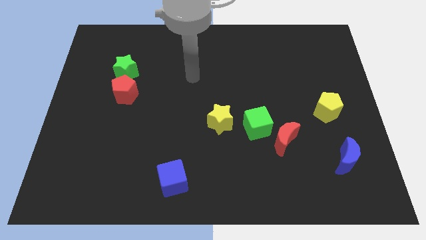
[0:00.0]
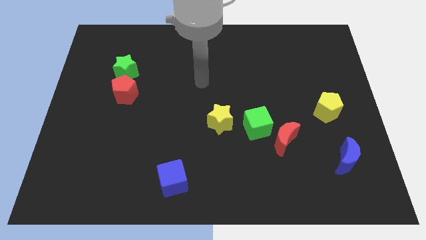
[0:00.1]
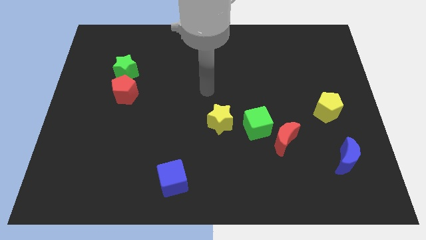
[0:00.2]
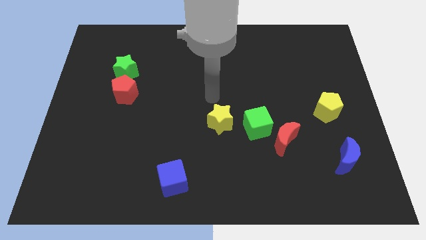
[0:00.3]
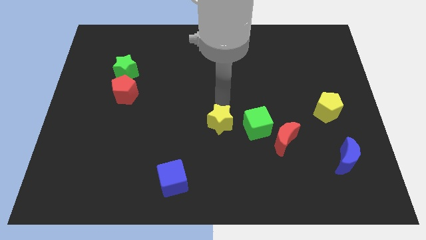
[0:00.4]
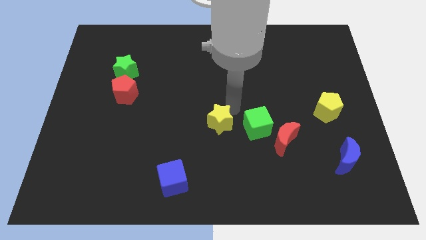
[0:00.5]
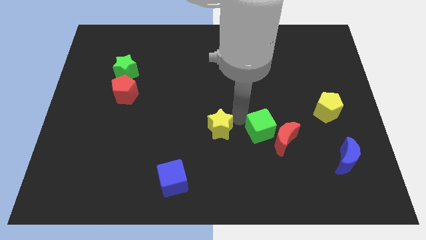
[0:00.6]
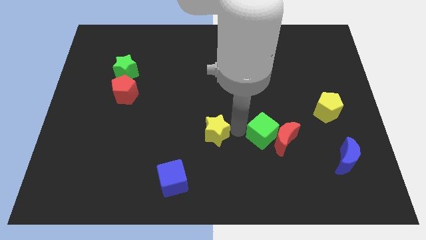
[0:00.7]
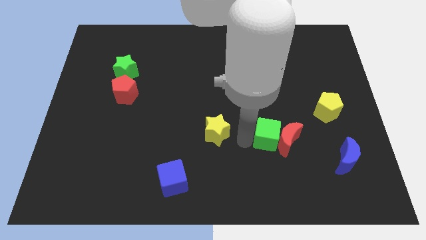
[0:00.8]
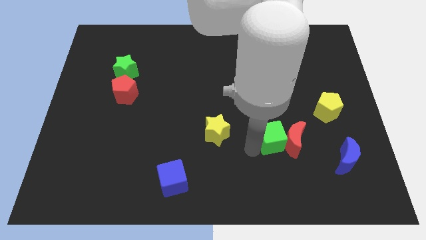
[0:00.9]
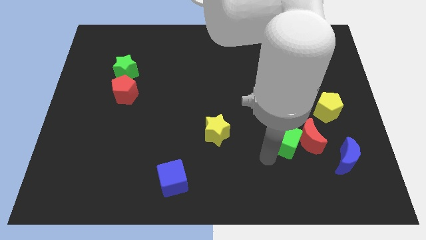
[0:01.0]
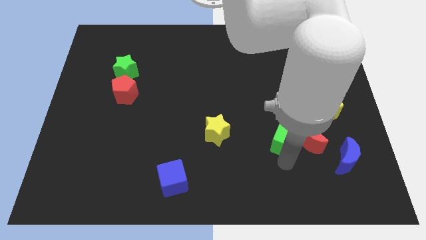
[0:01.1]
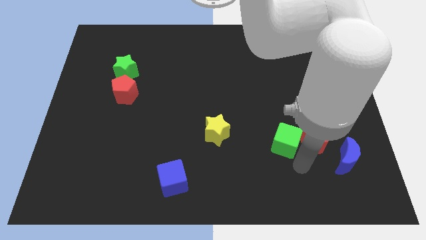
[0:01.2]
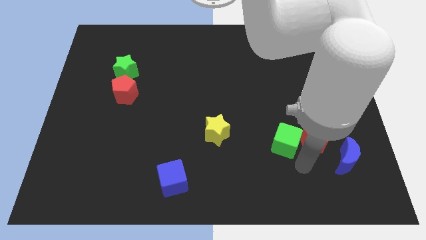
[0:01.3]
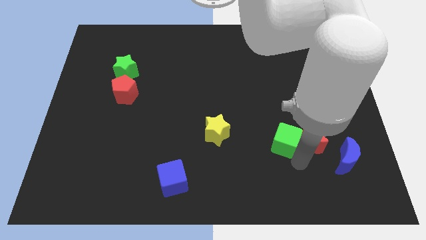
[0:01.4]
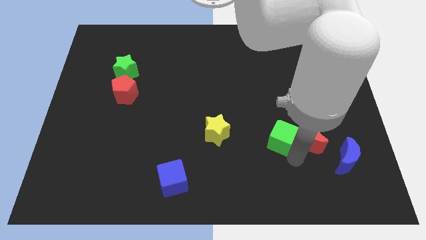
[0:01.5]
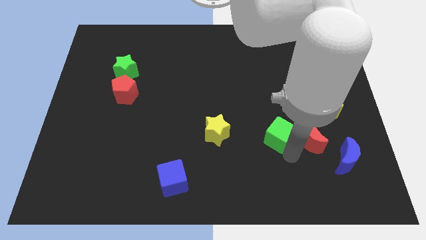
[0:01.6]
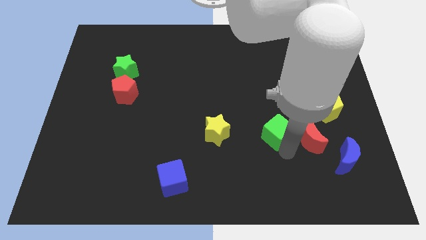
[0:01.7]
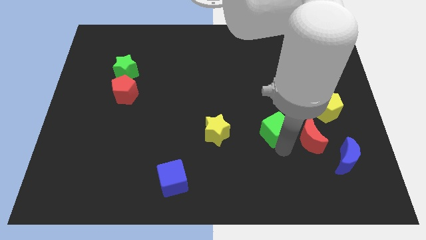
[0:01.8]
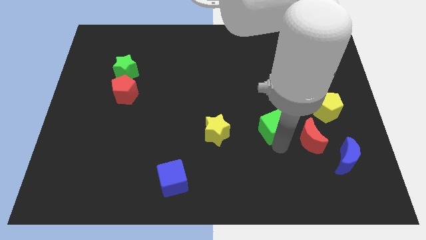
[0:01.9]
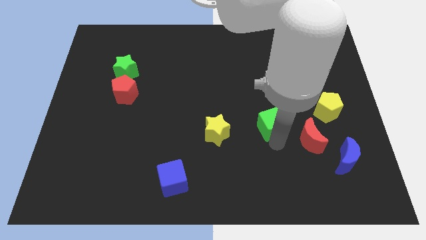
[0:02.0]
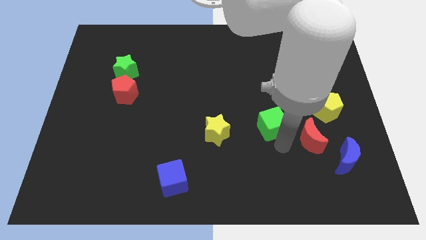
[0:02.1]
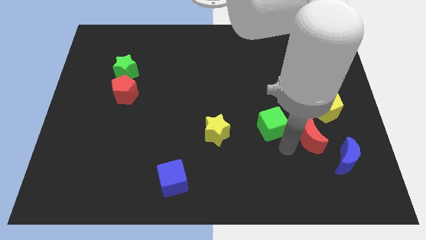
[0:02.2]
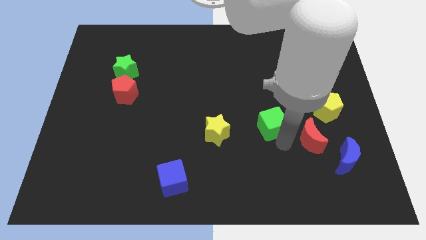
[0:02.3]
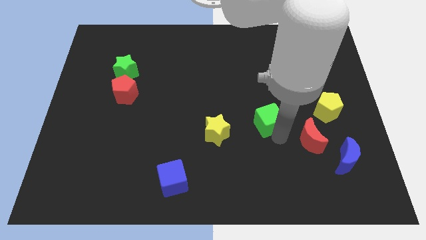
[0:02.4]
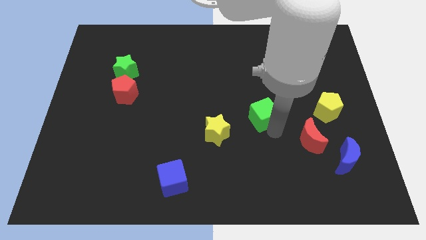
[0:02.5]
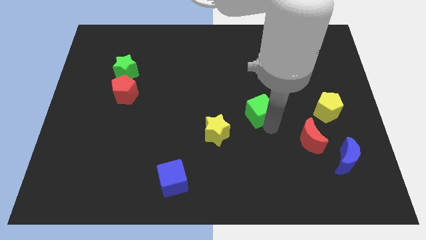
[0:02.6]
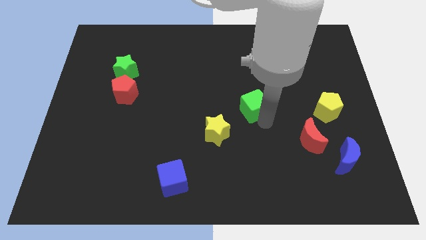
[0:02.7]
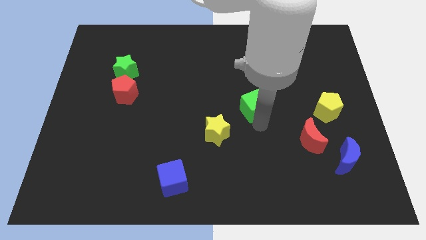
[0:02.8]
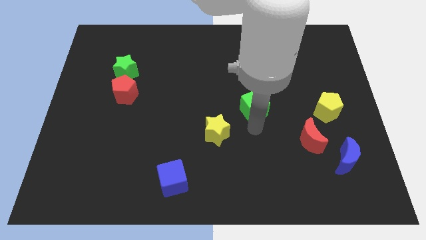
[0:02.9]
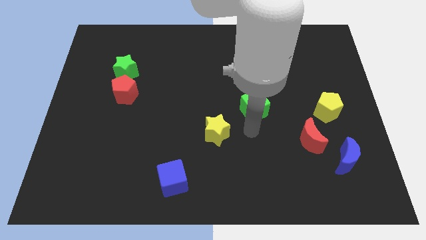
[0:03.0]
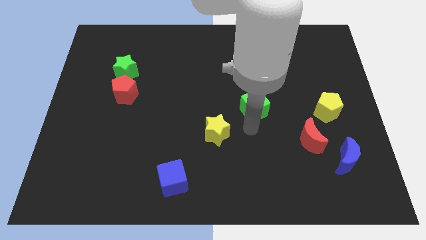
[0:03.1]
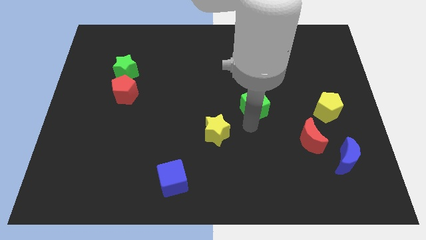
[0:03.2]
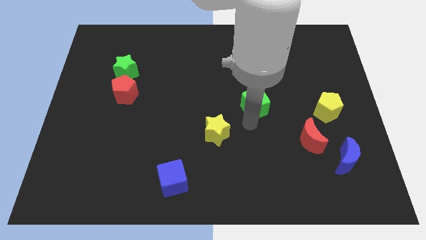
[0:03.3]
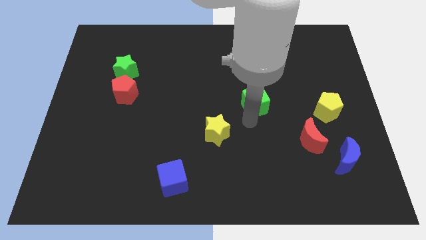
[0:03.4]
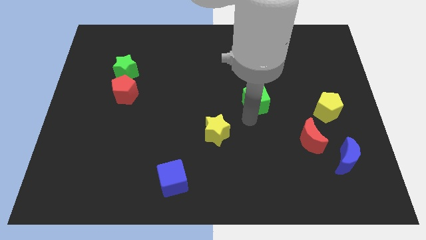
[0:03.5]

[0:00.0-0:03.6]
move the green cube up somewhat

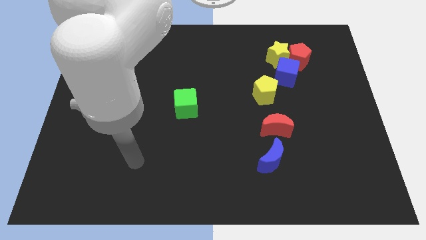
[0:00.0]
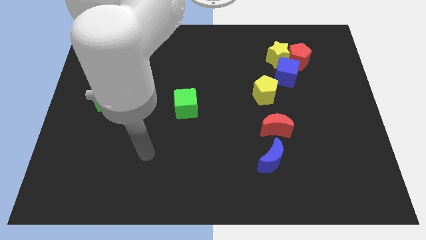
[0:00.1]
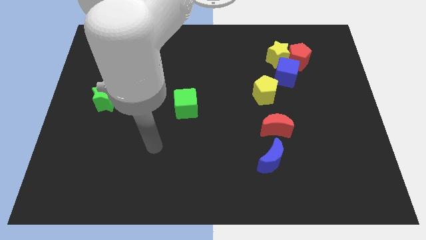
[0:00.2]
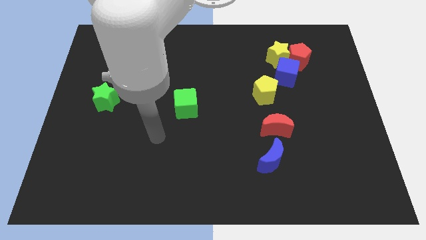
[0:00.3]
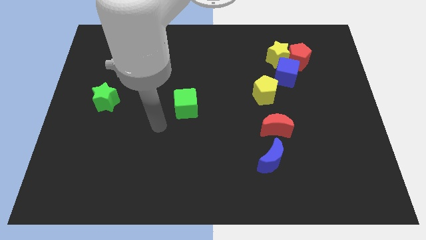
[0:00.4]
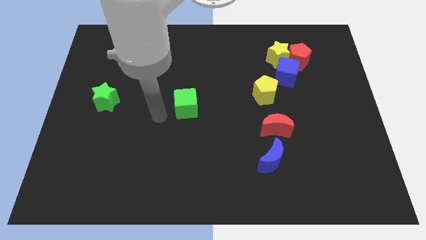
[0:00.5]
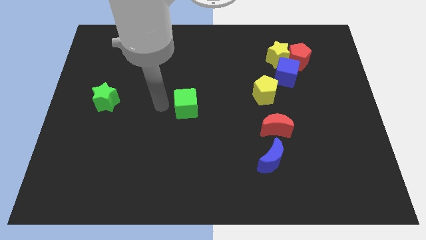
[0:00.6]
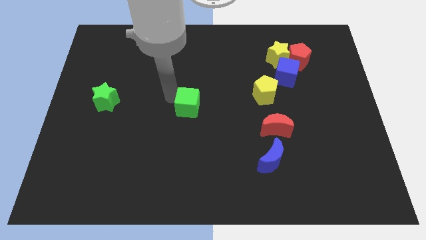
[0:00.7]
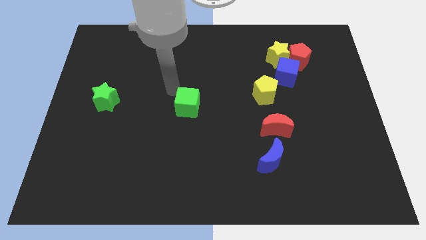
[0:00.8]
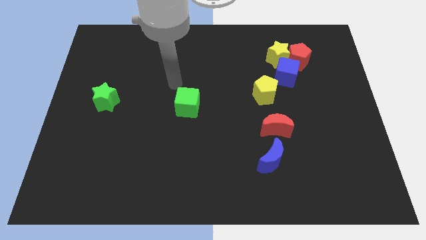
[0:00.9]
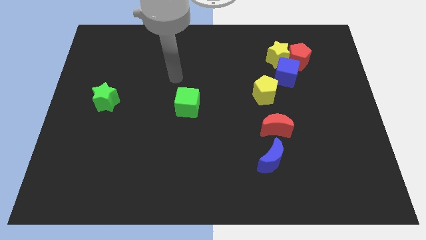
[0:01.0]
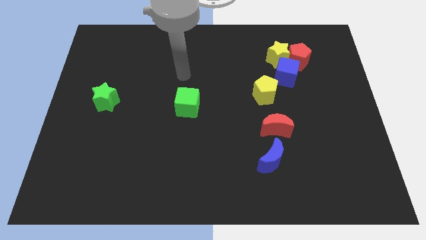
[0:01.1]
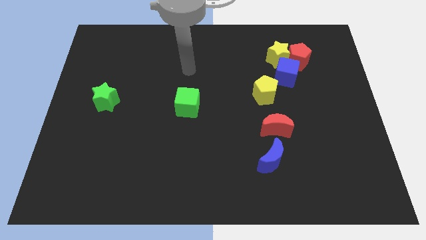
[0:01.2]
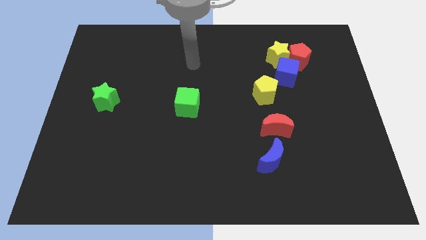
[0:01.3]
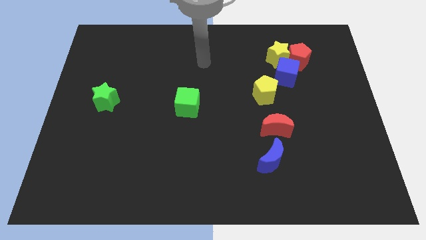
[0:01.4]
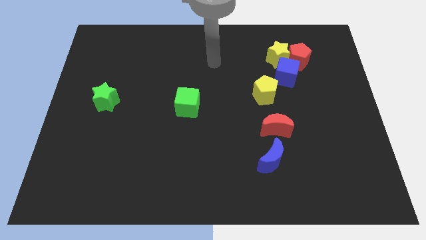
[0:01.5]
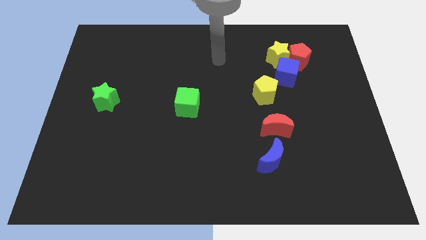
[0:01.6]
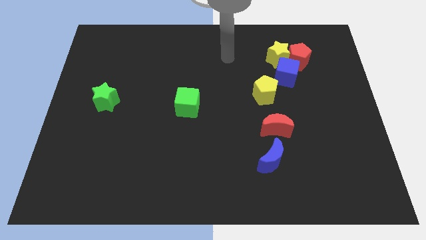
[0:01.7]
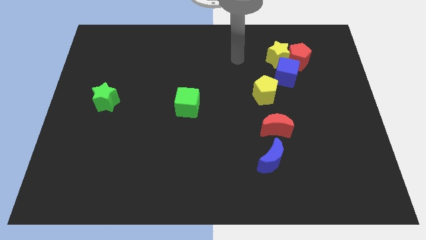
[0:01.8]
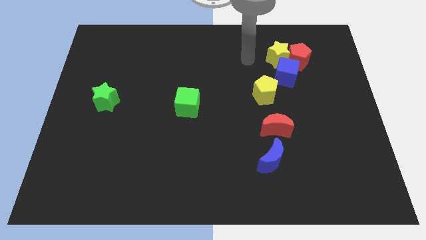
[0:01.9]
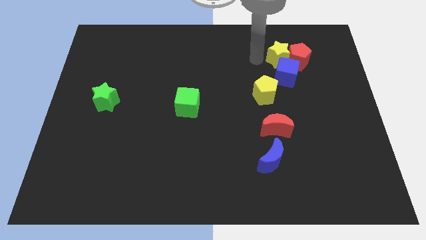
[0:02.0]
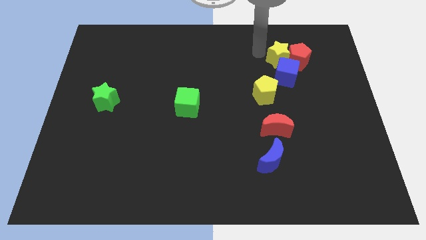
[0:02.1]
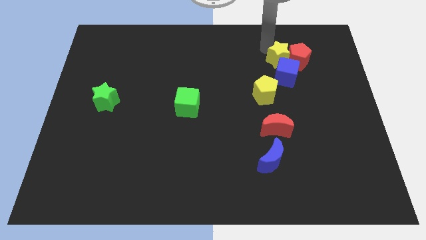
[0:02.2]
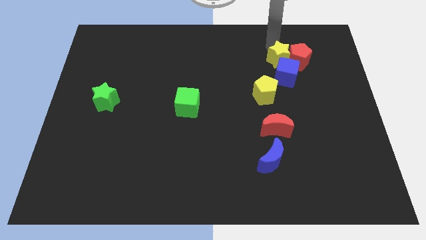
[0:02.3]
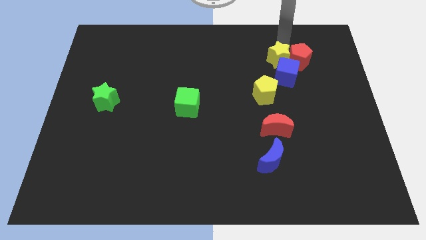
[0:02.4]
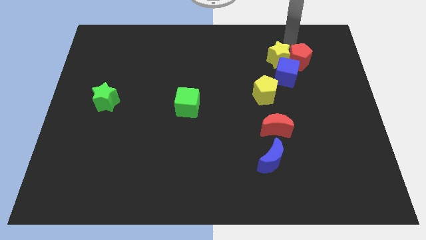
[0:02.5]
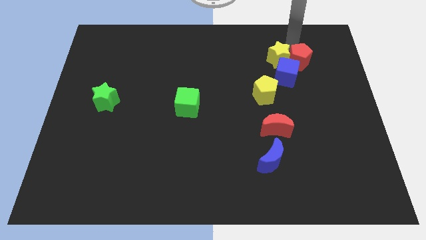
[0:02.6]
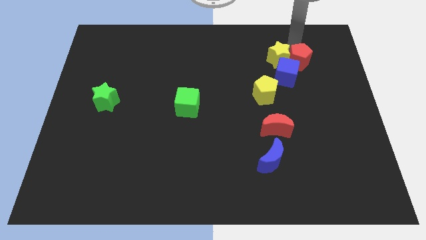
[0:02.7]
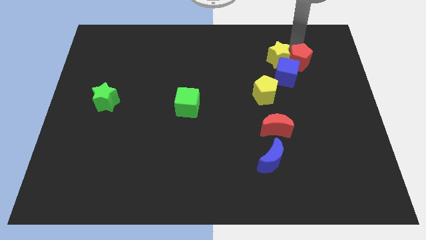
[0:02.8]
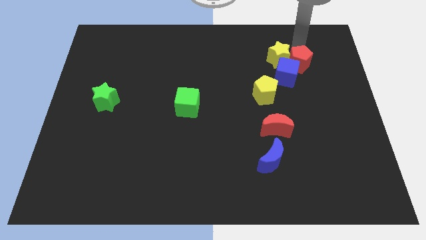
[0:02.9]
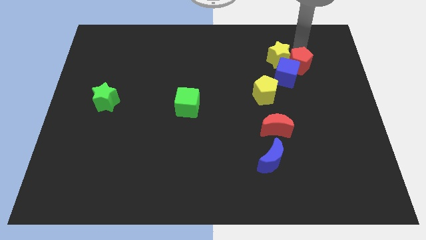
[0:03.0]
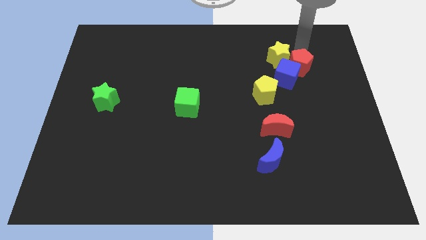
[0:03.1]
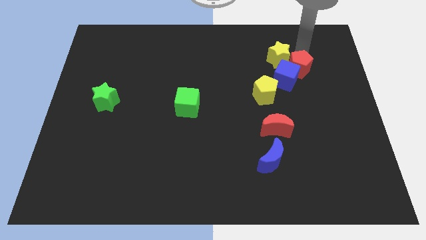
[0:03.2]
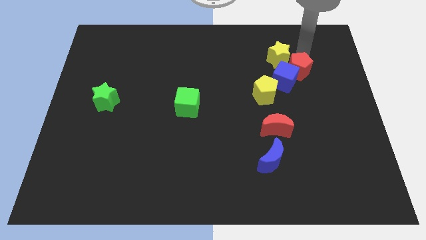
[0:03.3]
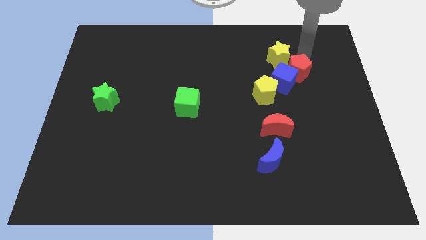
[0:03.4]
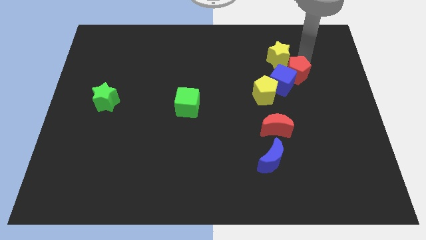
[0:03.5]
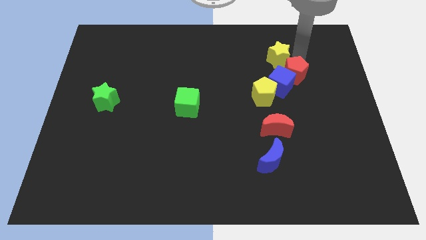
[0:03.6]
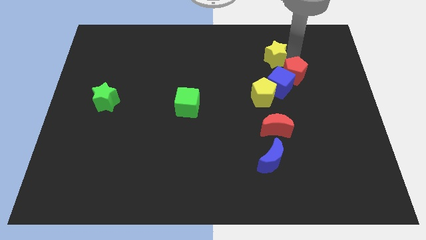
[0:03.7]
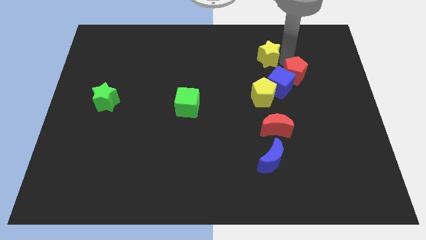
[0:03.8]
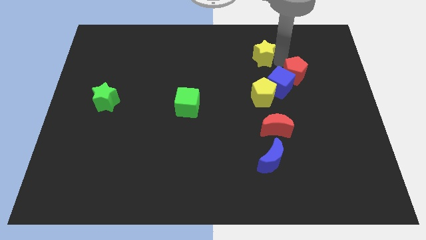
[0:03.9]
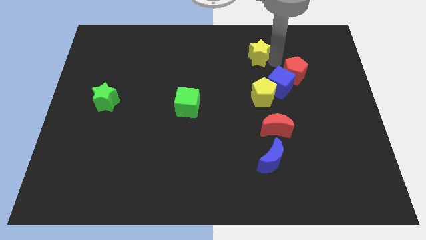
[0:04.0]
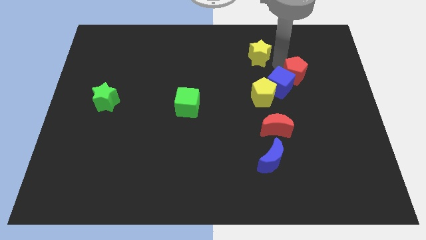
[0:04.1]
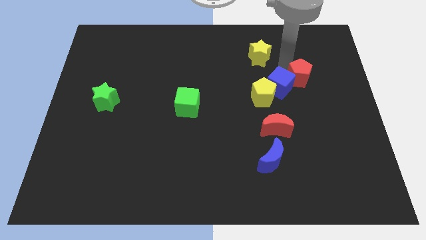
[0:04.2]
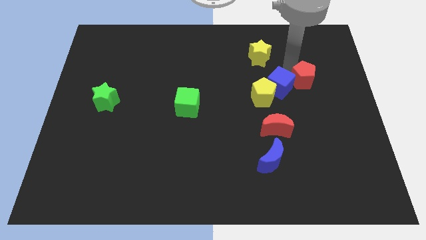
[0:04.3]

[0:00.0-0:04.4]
slightly push the red pentagon downwards

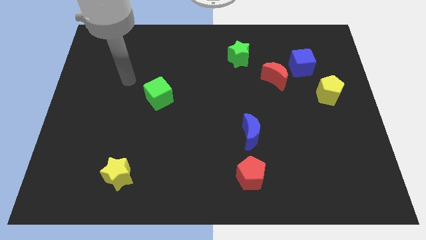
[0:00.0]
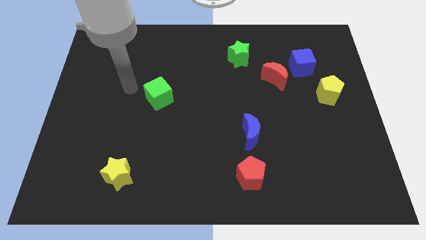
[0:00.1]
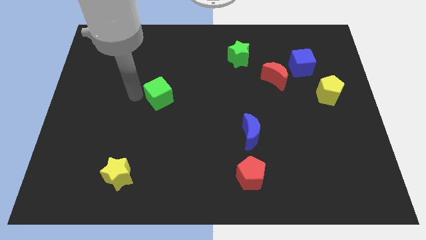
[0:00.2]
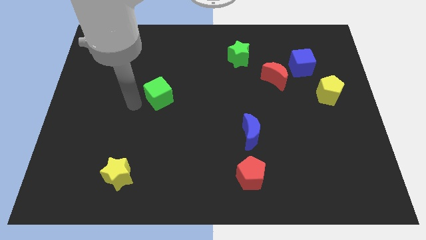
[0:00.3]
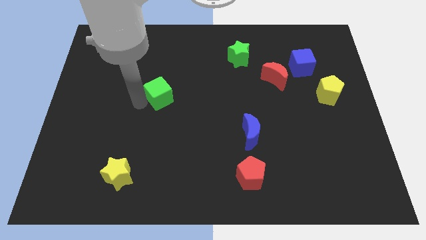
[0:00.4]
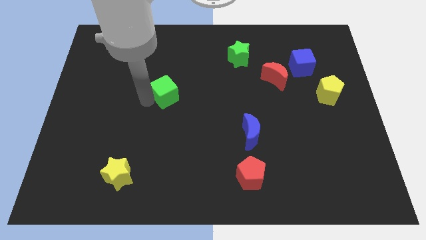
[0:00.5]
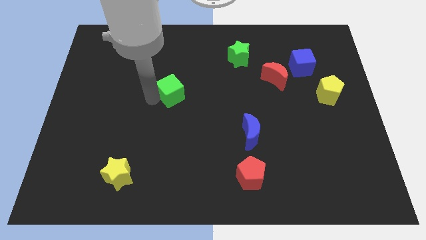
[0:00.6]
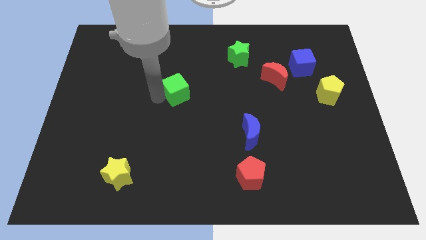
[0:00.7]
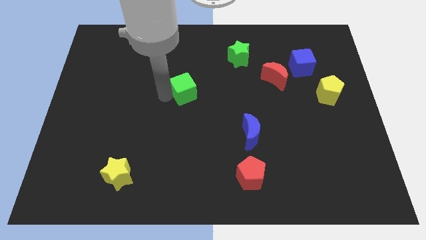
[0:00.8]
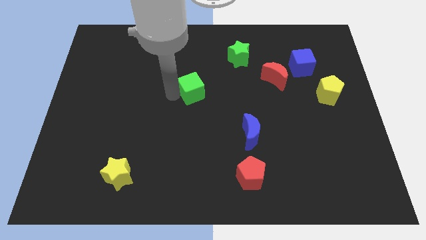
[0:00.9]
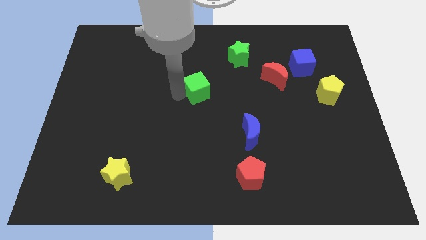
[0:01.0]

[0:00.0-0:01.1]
move the green cube up and right slightly
